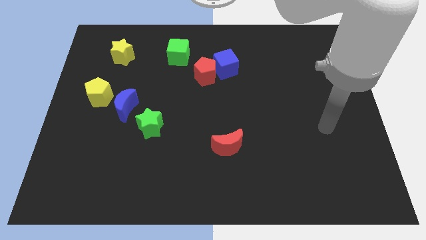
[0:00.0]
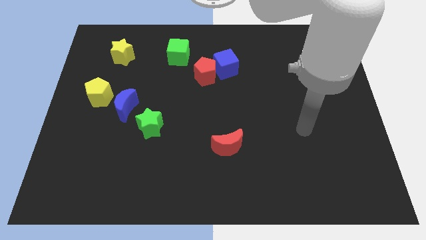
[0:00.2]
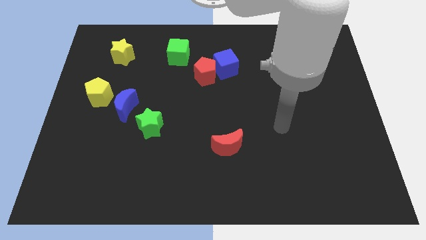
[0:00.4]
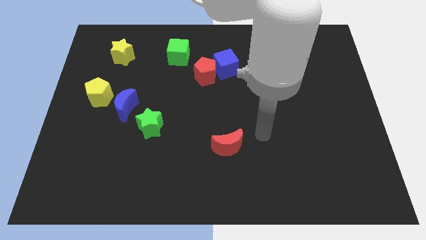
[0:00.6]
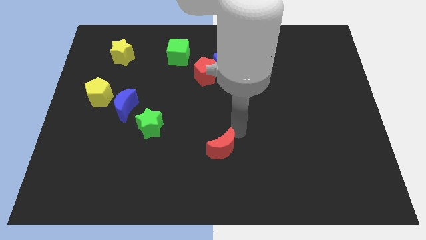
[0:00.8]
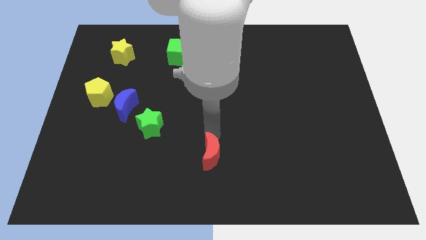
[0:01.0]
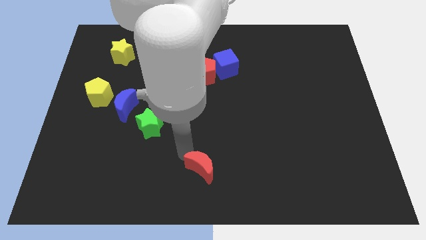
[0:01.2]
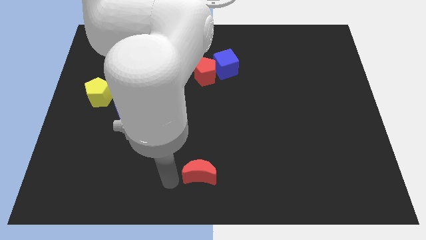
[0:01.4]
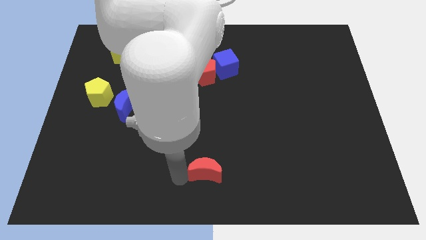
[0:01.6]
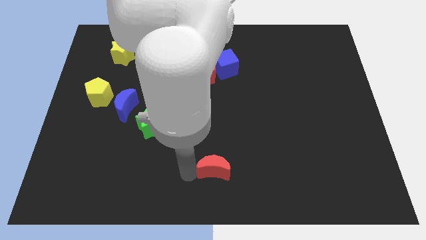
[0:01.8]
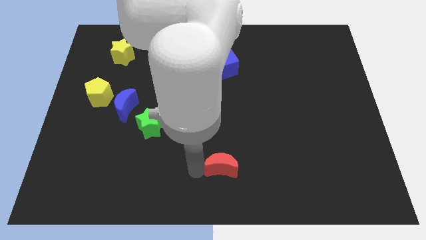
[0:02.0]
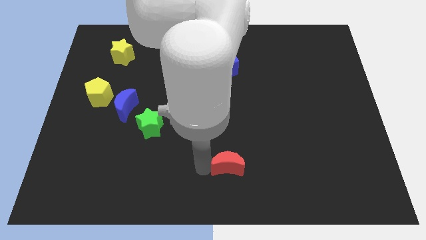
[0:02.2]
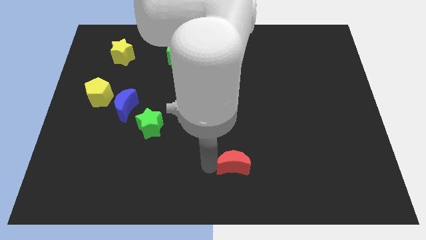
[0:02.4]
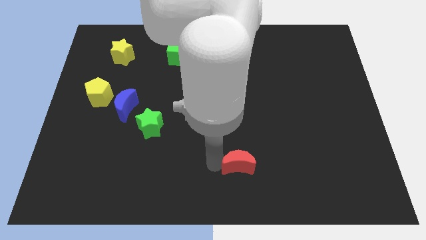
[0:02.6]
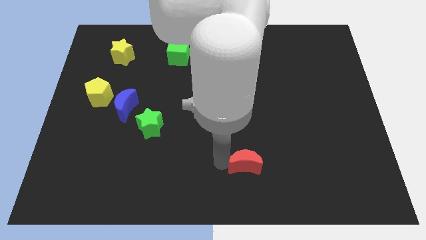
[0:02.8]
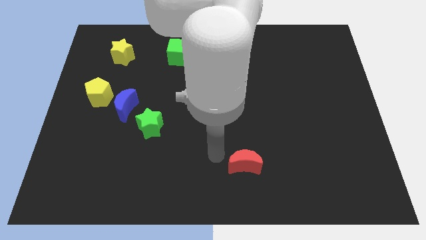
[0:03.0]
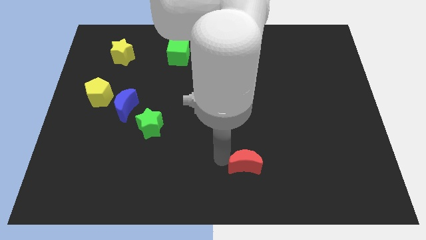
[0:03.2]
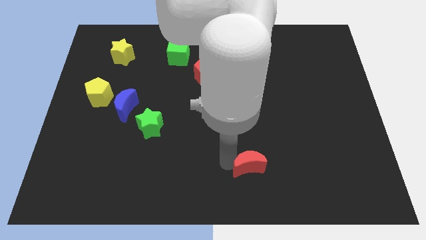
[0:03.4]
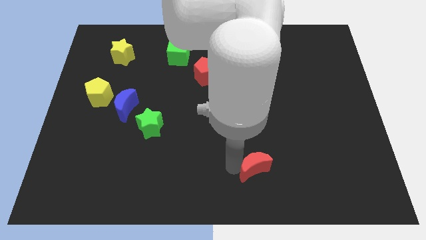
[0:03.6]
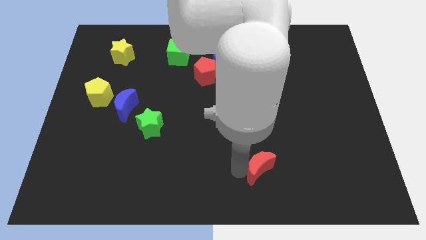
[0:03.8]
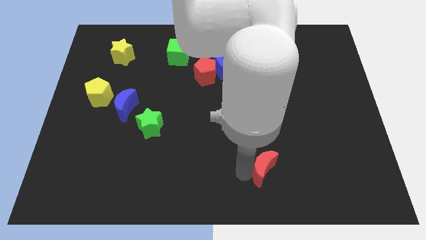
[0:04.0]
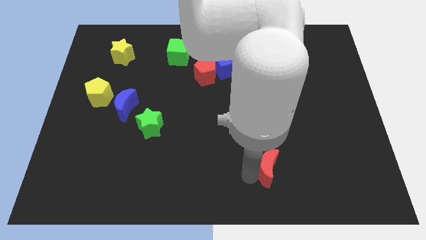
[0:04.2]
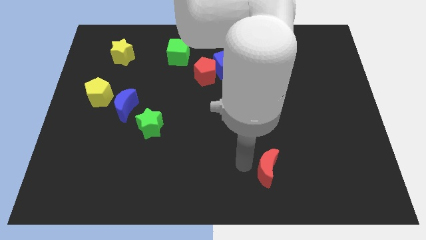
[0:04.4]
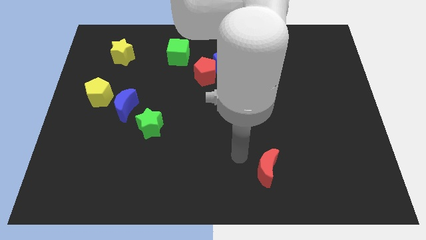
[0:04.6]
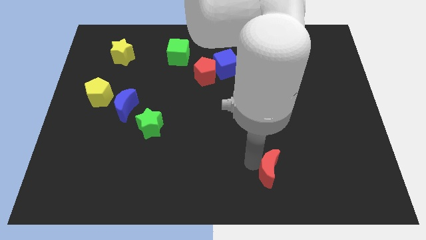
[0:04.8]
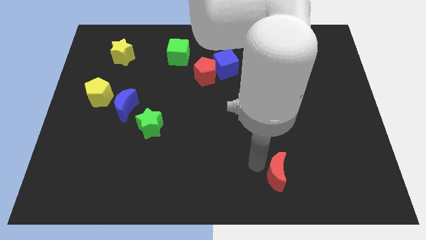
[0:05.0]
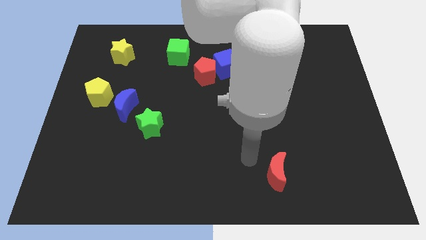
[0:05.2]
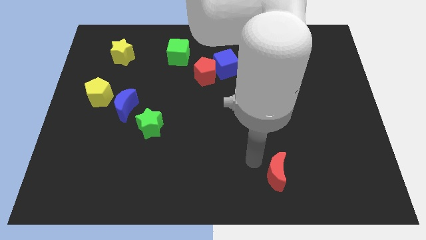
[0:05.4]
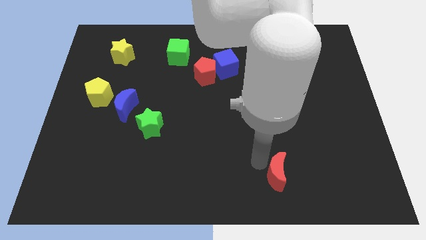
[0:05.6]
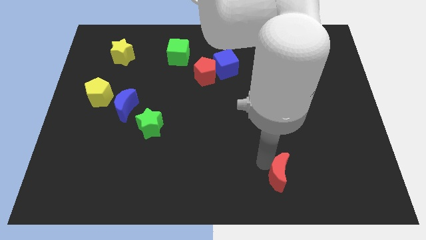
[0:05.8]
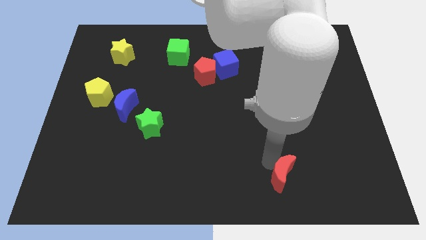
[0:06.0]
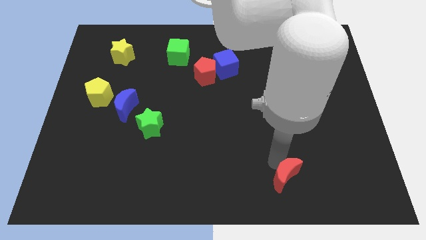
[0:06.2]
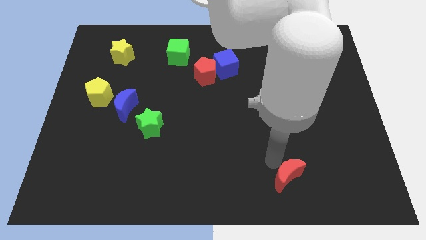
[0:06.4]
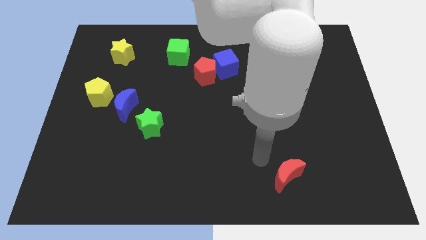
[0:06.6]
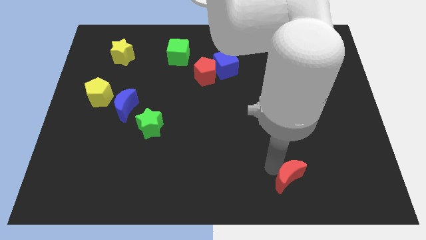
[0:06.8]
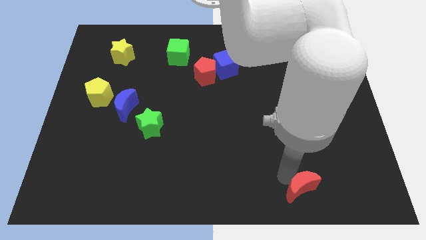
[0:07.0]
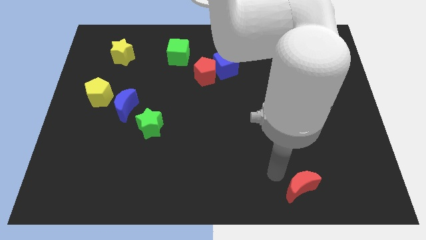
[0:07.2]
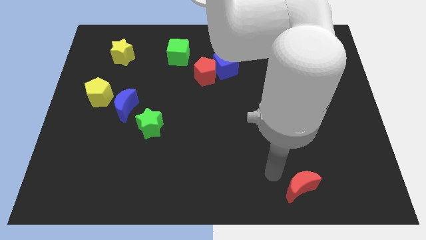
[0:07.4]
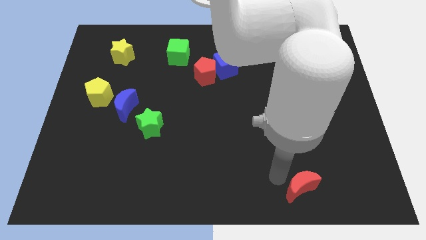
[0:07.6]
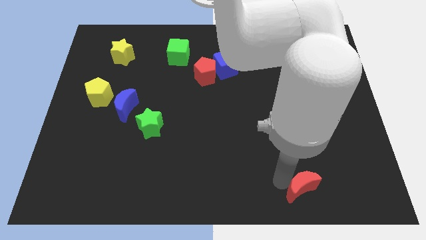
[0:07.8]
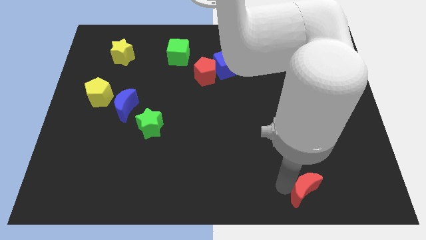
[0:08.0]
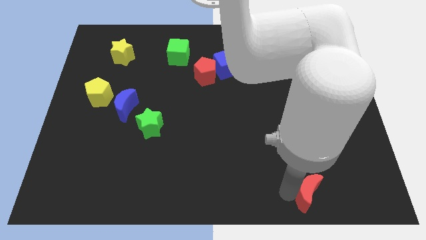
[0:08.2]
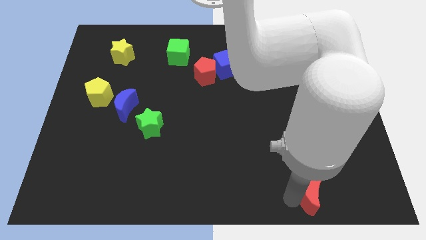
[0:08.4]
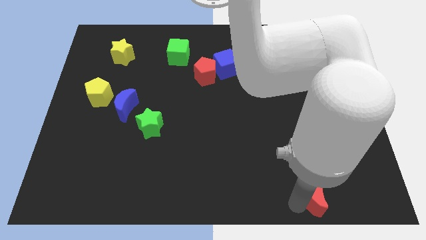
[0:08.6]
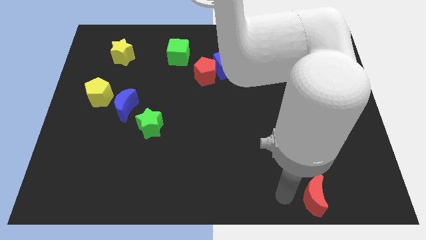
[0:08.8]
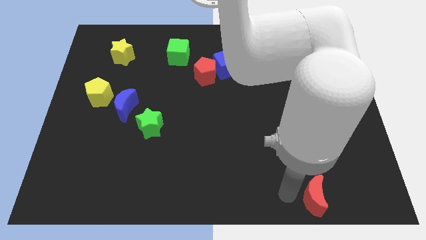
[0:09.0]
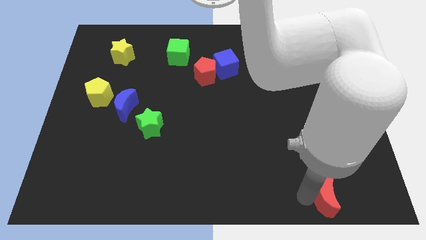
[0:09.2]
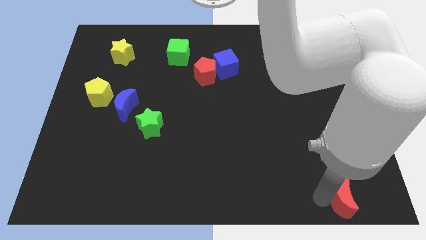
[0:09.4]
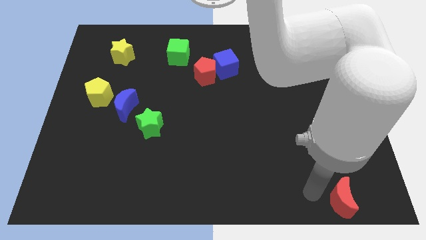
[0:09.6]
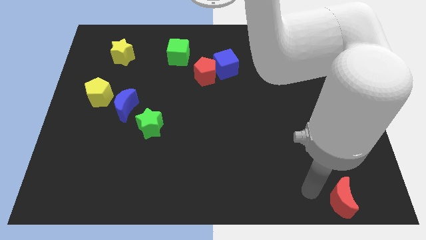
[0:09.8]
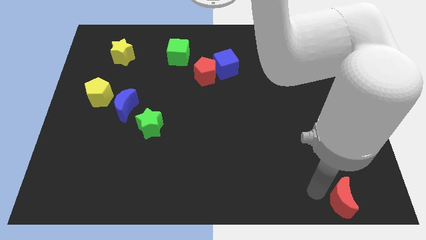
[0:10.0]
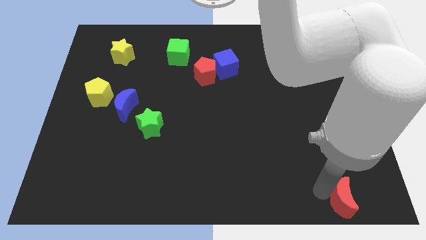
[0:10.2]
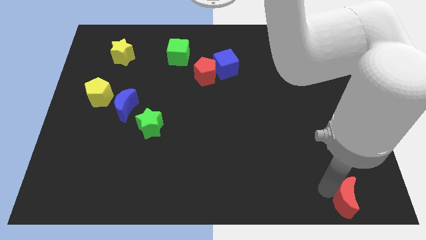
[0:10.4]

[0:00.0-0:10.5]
slide the red moon to the bottom right of the board

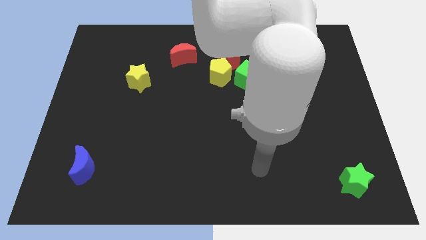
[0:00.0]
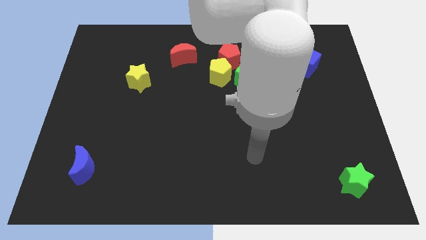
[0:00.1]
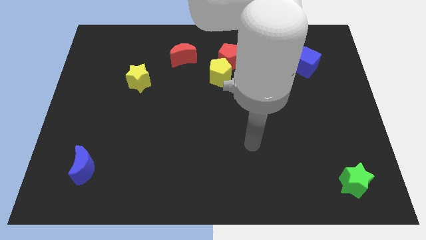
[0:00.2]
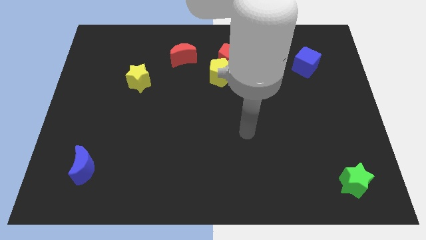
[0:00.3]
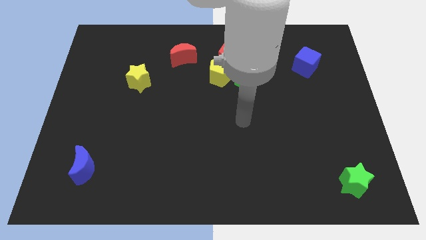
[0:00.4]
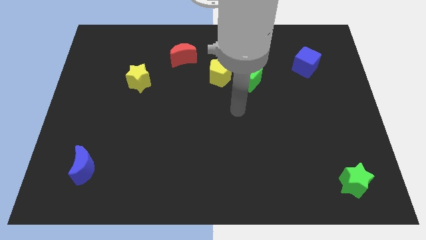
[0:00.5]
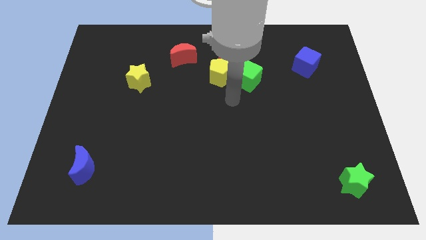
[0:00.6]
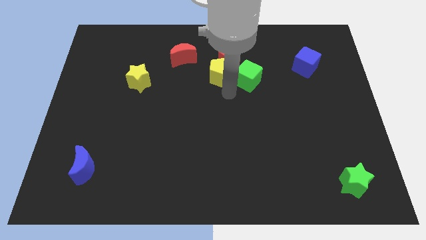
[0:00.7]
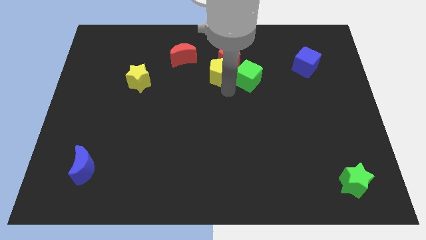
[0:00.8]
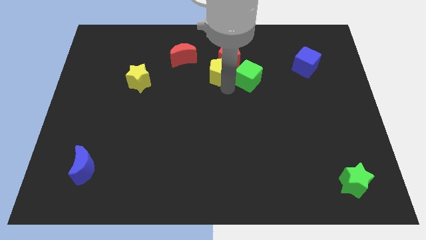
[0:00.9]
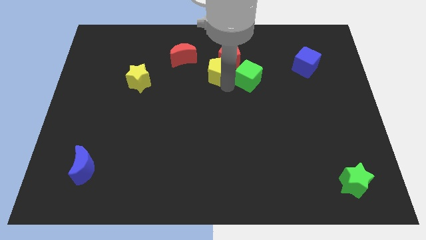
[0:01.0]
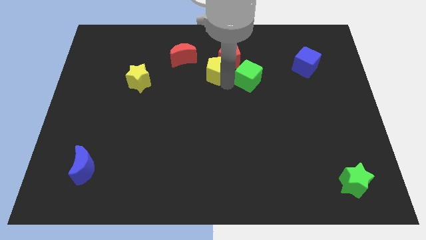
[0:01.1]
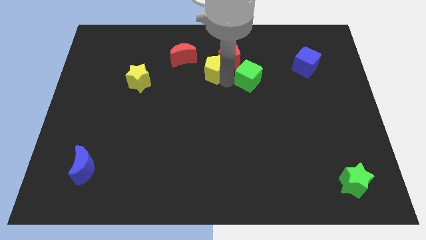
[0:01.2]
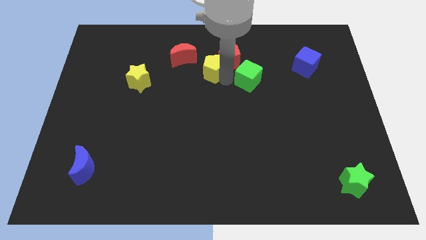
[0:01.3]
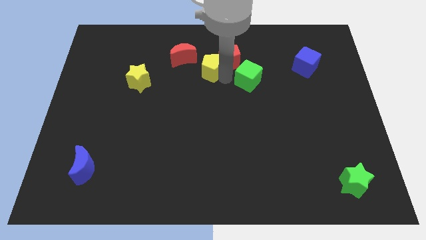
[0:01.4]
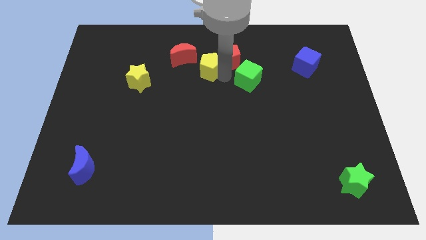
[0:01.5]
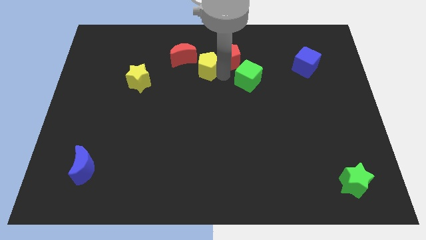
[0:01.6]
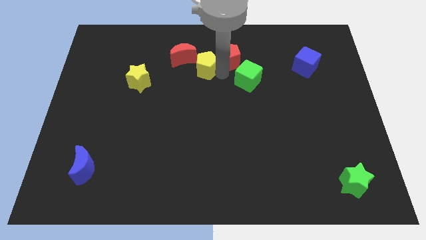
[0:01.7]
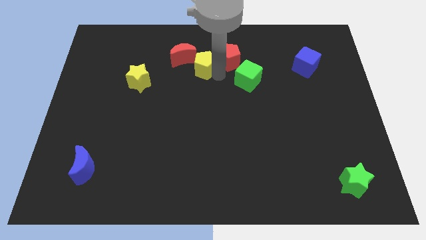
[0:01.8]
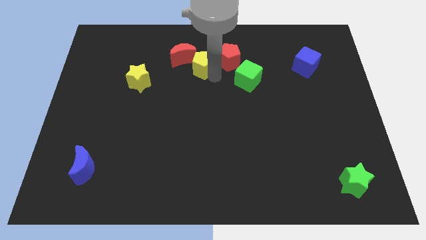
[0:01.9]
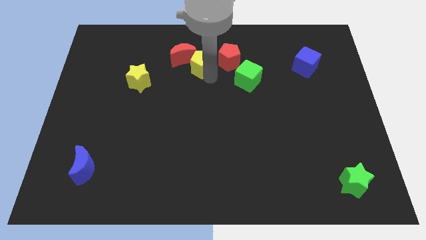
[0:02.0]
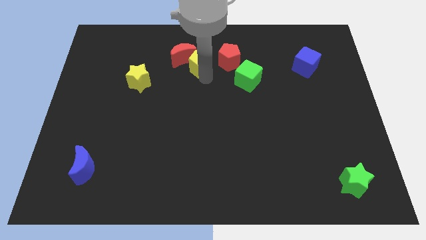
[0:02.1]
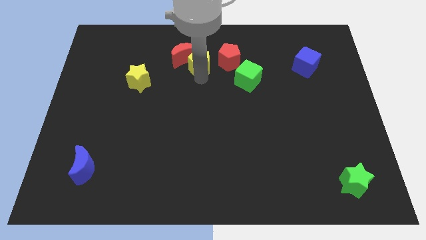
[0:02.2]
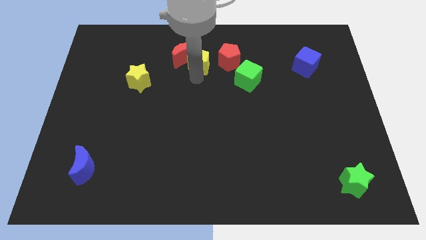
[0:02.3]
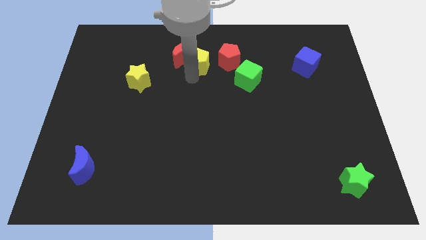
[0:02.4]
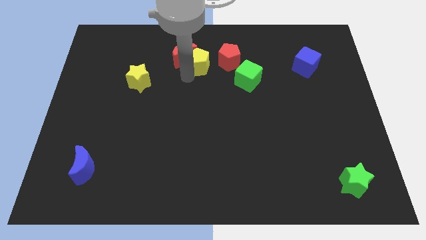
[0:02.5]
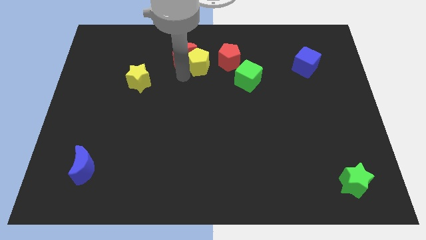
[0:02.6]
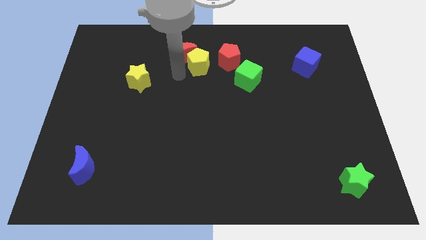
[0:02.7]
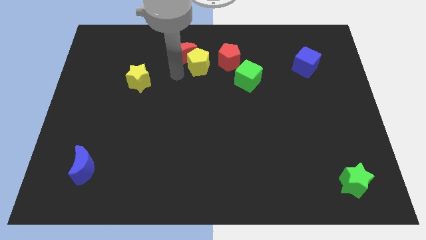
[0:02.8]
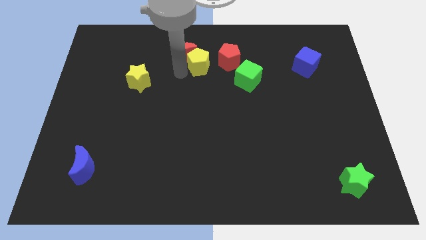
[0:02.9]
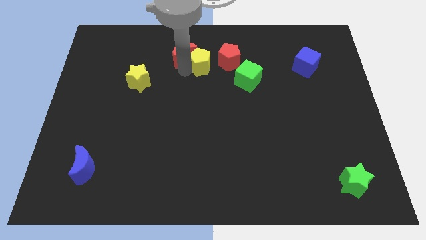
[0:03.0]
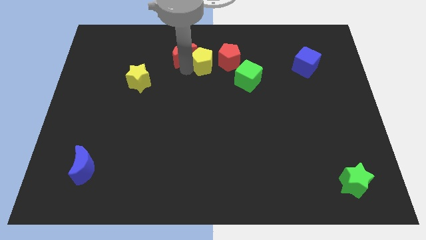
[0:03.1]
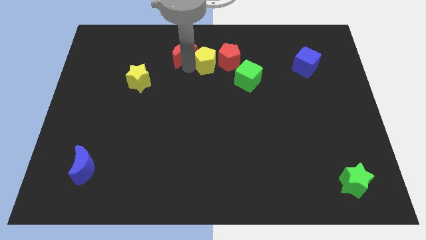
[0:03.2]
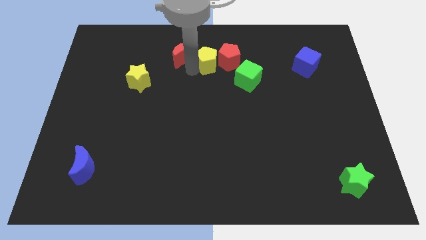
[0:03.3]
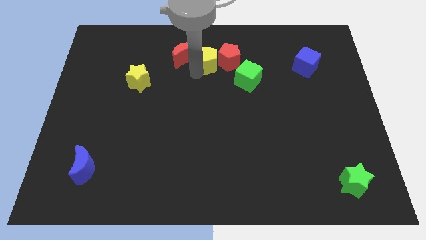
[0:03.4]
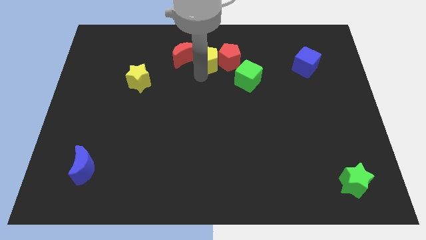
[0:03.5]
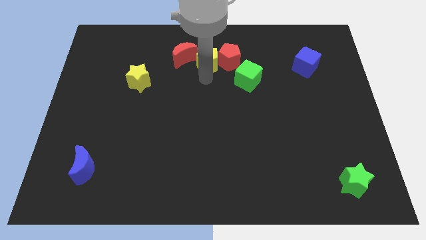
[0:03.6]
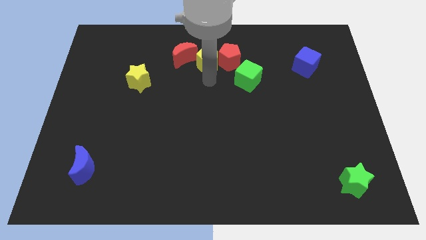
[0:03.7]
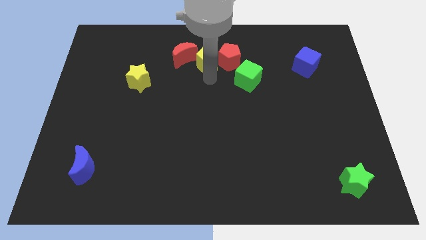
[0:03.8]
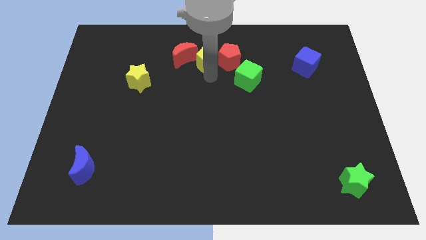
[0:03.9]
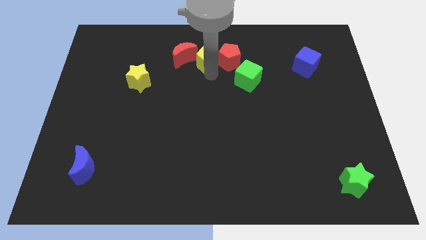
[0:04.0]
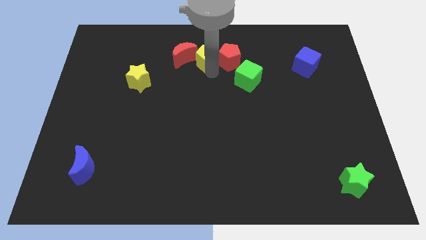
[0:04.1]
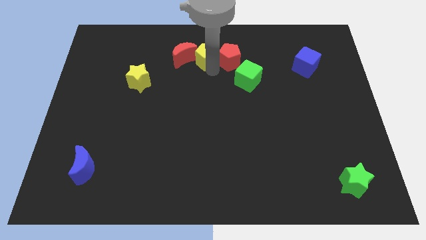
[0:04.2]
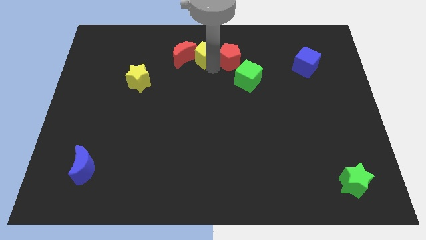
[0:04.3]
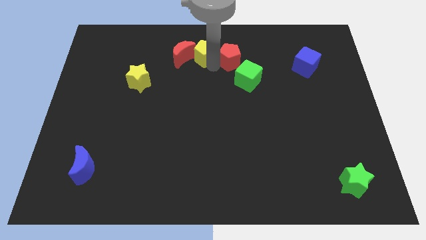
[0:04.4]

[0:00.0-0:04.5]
push the yellow pentagon to the top side
